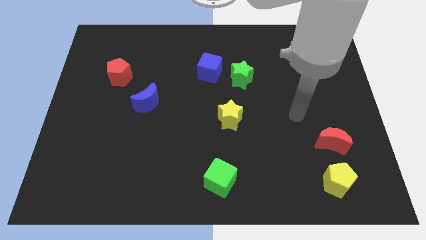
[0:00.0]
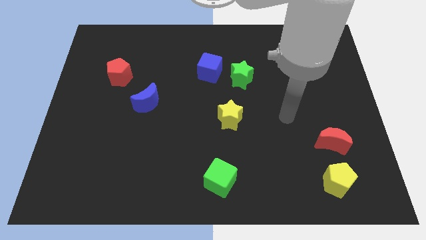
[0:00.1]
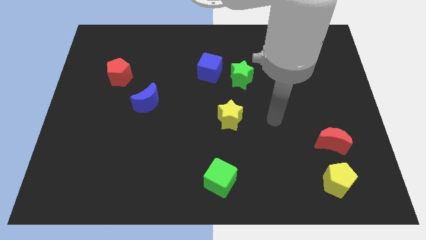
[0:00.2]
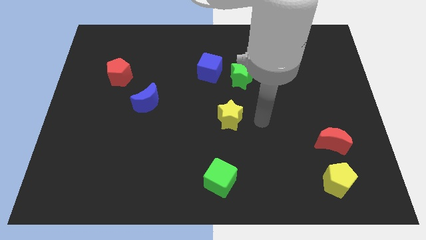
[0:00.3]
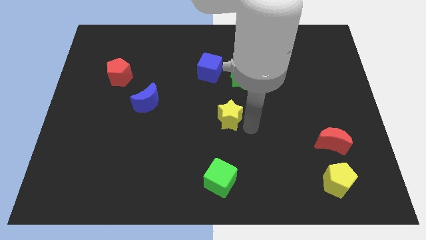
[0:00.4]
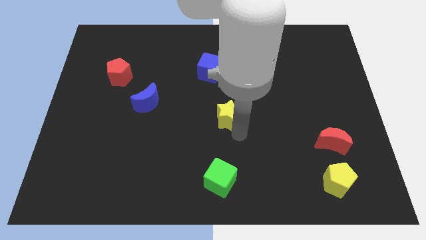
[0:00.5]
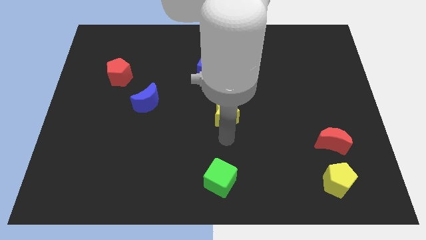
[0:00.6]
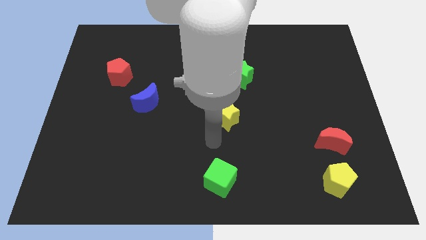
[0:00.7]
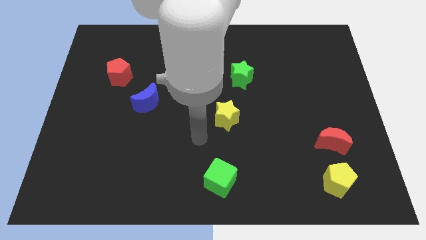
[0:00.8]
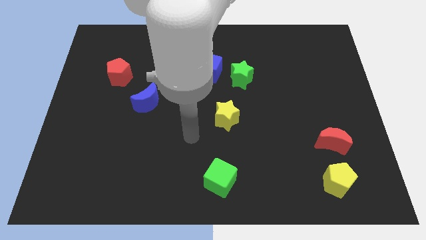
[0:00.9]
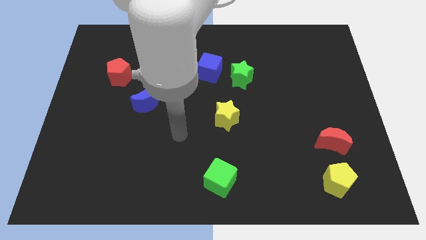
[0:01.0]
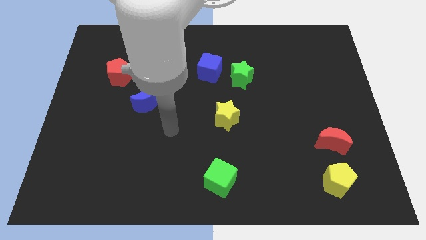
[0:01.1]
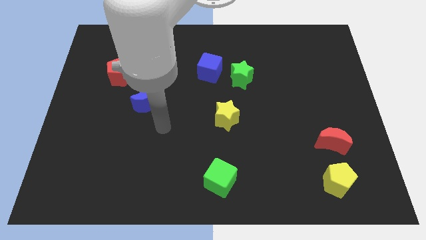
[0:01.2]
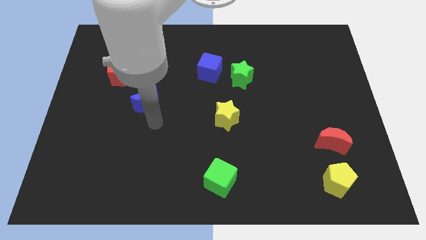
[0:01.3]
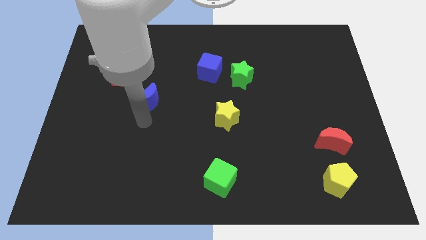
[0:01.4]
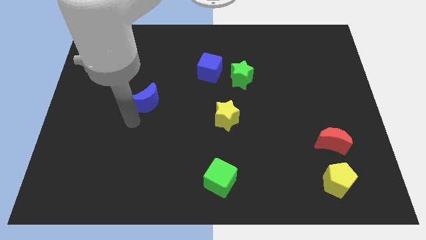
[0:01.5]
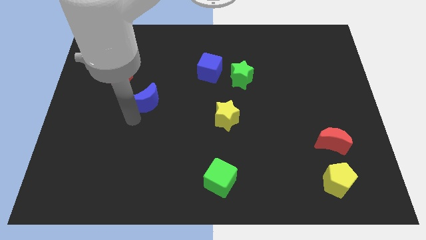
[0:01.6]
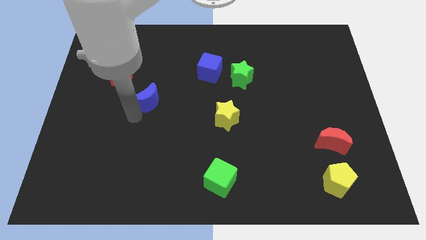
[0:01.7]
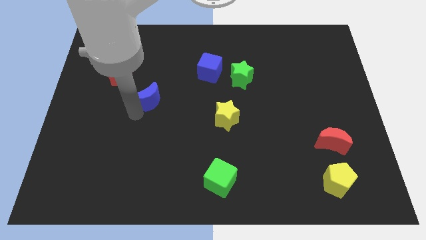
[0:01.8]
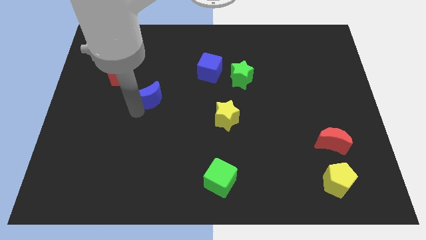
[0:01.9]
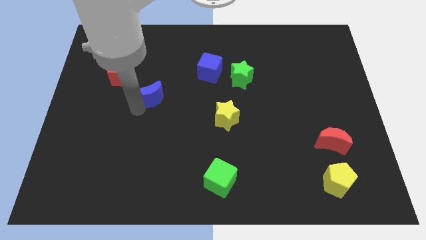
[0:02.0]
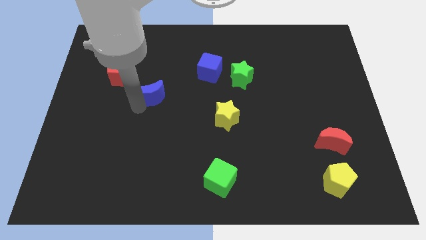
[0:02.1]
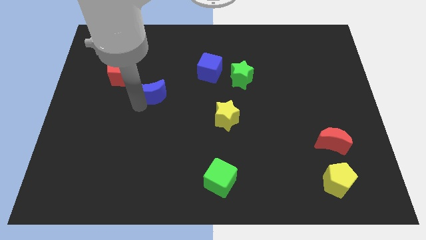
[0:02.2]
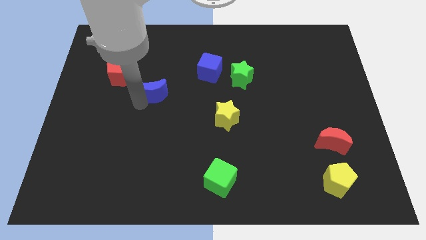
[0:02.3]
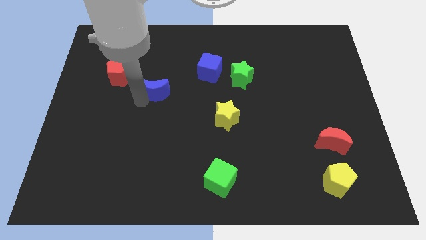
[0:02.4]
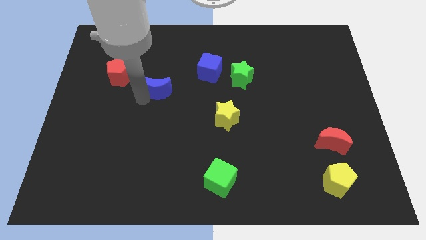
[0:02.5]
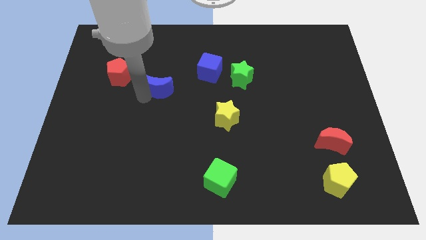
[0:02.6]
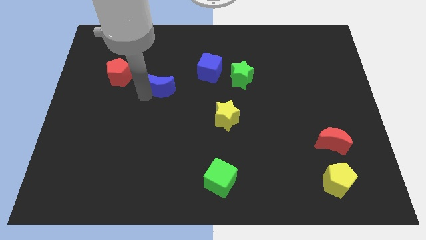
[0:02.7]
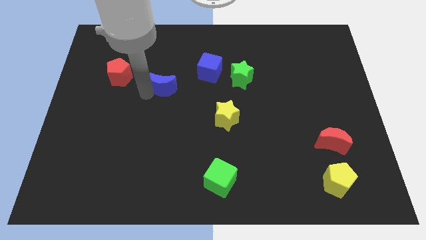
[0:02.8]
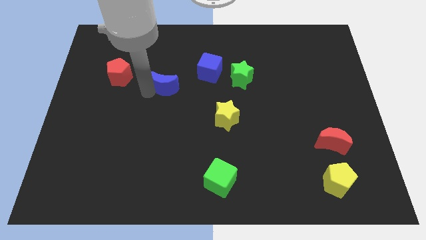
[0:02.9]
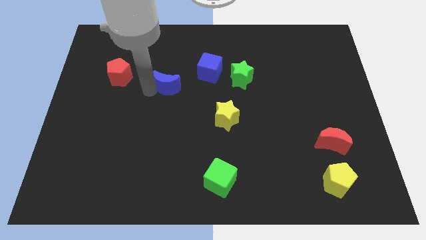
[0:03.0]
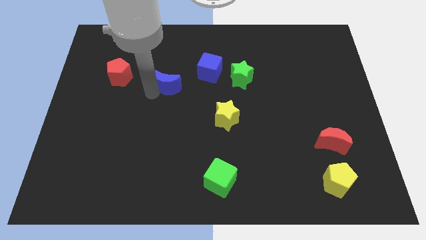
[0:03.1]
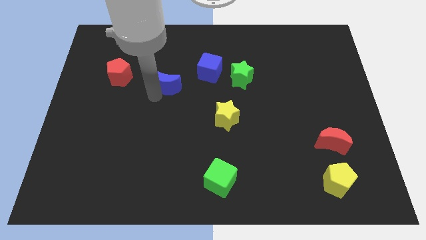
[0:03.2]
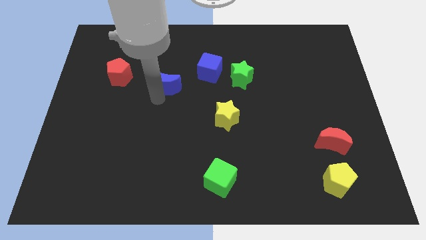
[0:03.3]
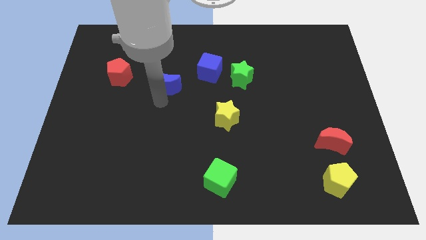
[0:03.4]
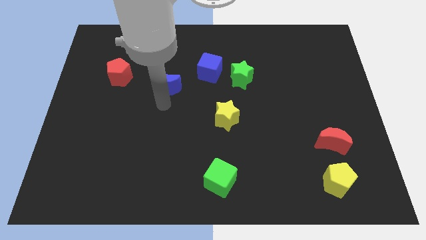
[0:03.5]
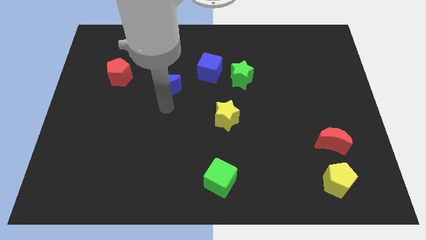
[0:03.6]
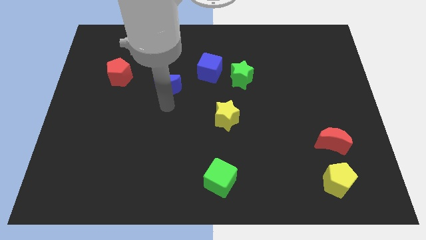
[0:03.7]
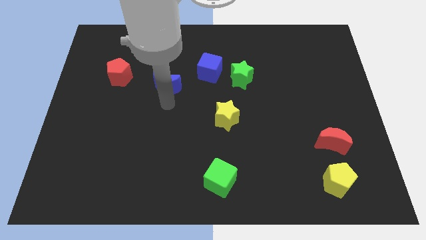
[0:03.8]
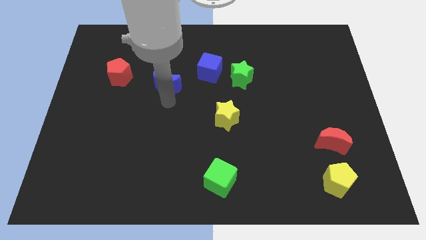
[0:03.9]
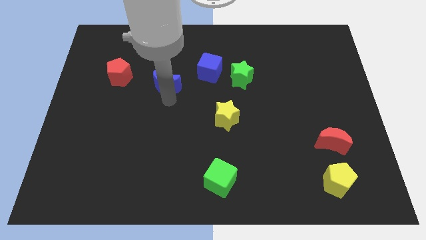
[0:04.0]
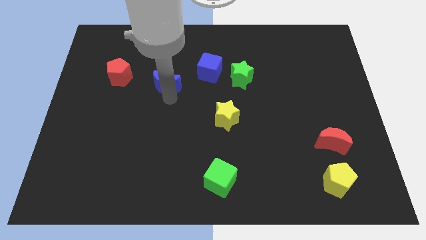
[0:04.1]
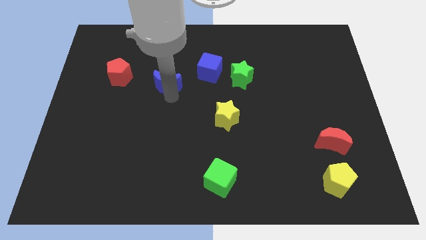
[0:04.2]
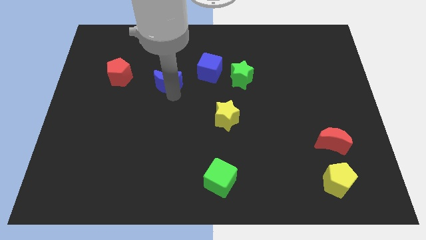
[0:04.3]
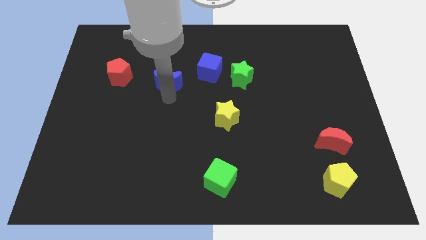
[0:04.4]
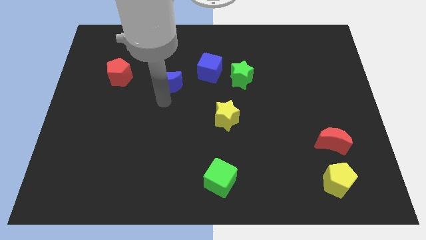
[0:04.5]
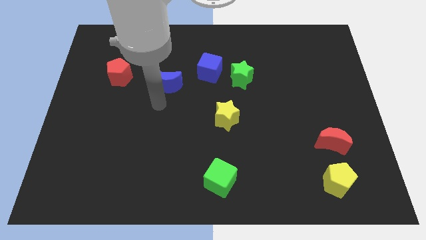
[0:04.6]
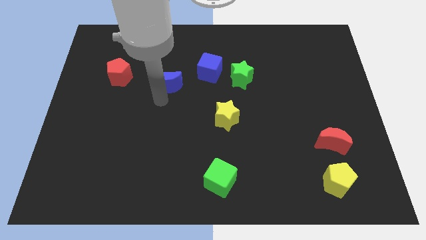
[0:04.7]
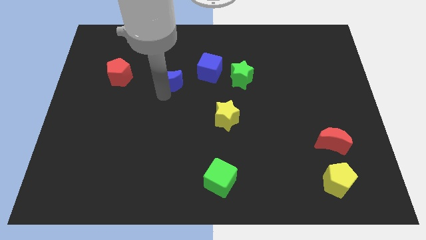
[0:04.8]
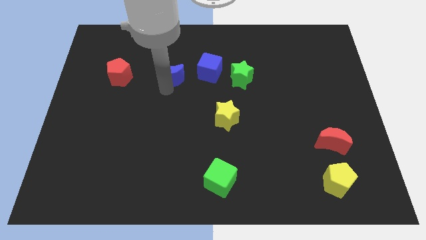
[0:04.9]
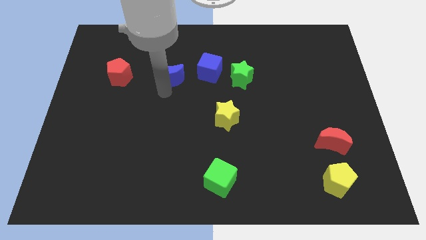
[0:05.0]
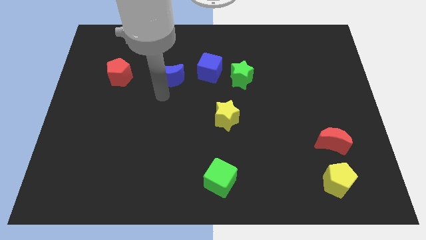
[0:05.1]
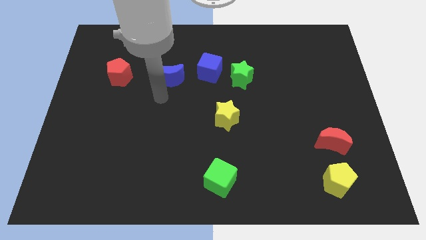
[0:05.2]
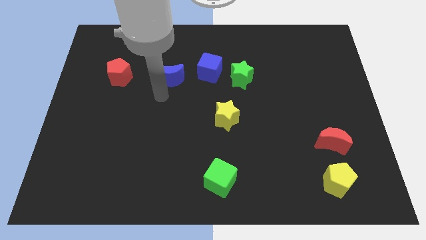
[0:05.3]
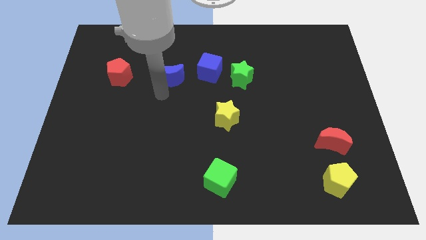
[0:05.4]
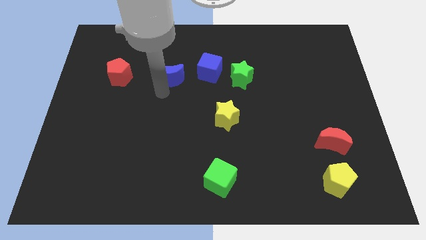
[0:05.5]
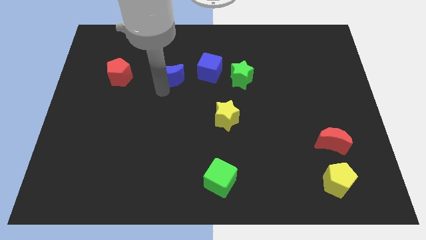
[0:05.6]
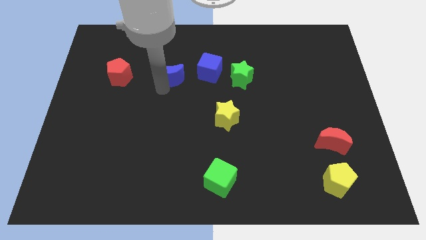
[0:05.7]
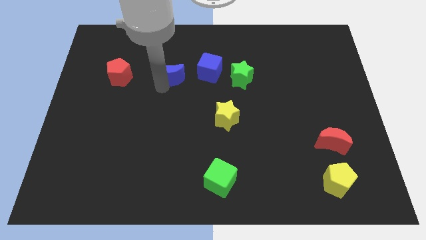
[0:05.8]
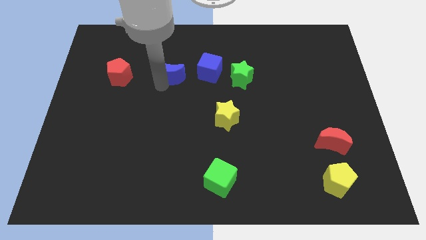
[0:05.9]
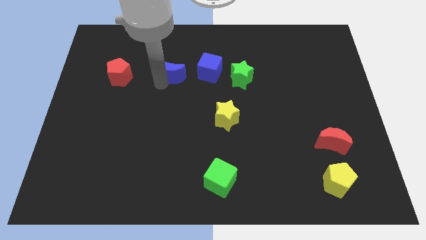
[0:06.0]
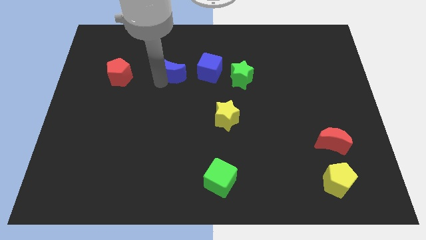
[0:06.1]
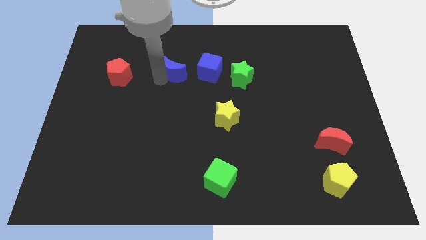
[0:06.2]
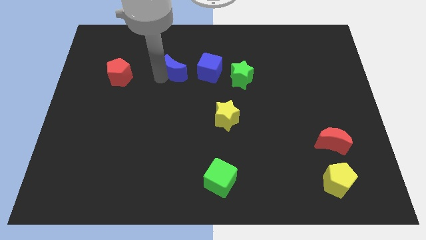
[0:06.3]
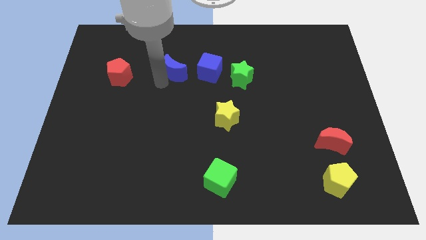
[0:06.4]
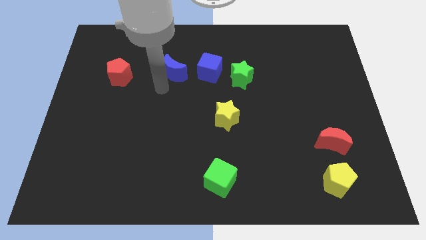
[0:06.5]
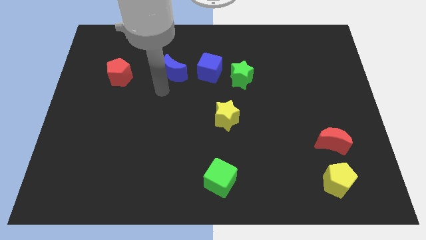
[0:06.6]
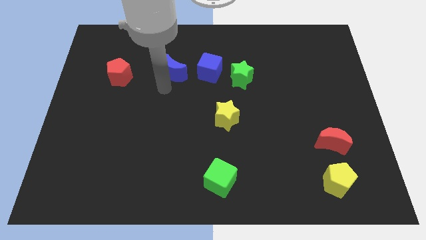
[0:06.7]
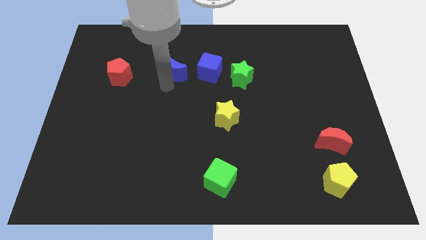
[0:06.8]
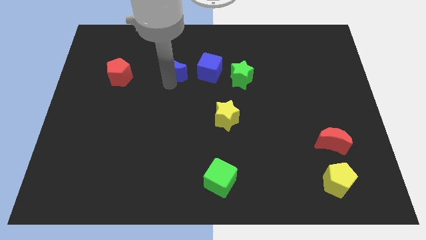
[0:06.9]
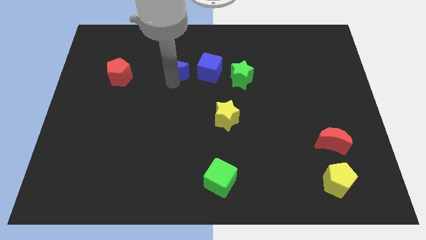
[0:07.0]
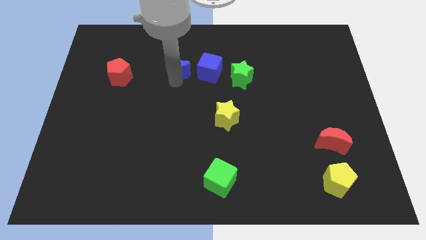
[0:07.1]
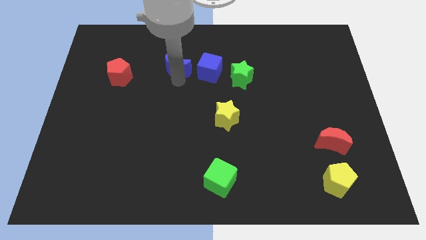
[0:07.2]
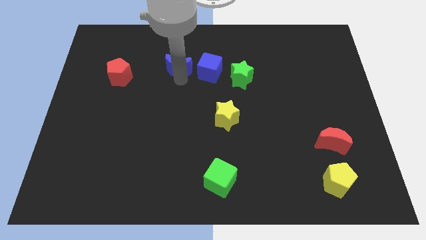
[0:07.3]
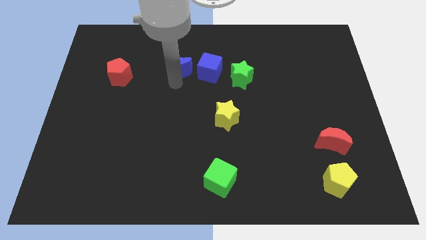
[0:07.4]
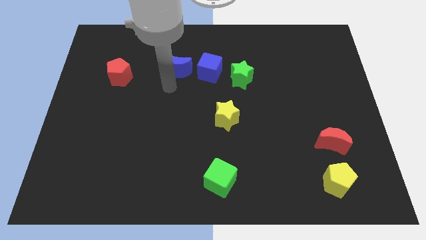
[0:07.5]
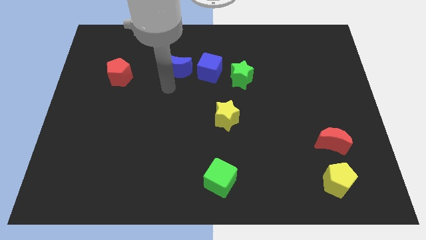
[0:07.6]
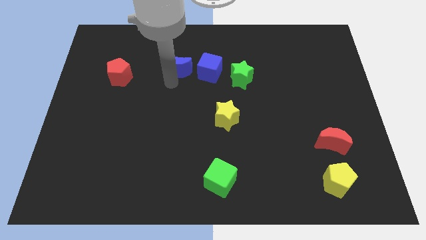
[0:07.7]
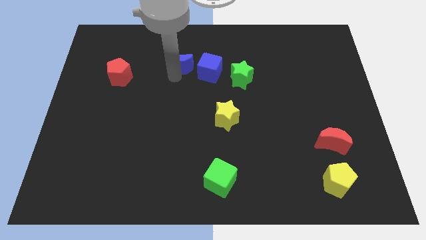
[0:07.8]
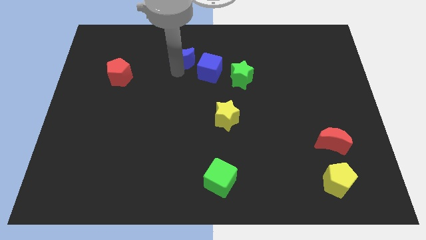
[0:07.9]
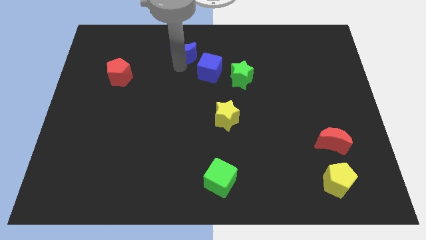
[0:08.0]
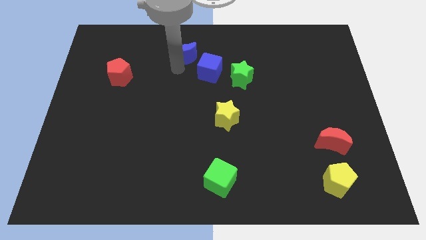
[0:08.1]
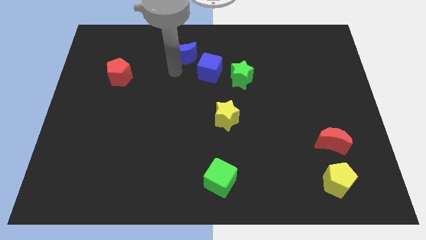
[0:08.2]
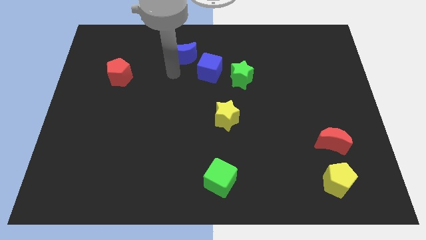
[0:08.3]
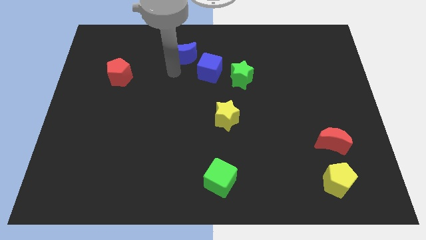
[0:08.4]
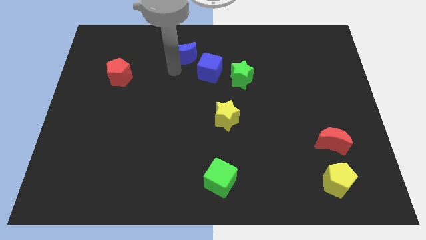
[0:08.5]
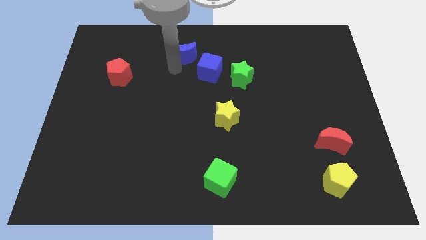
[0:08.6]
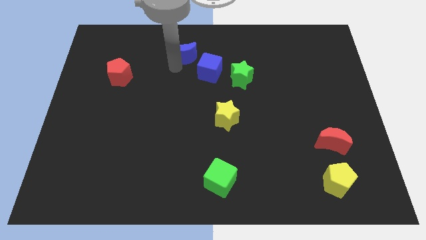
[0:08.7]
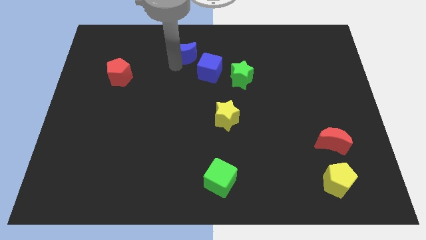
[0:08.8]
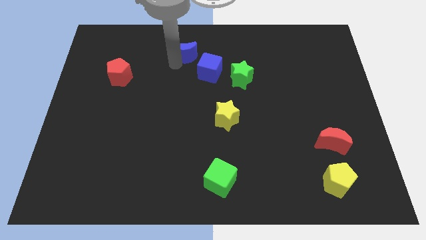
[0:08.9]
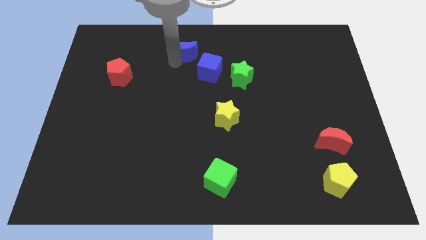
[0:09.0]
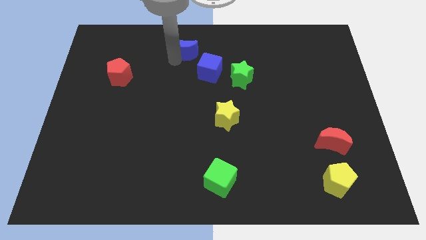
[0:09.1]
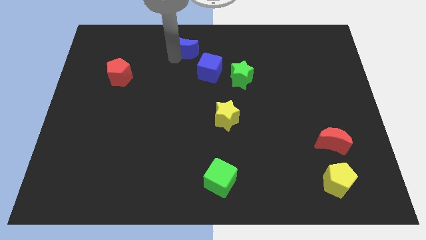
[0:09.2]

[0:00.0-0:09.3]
move the blue moon to the towards your base
